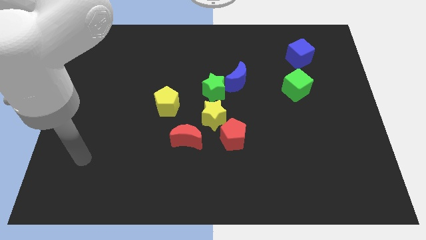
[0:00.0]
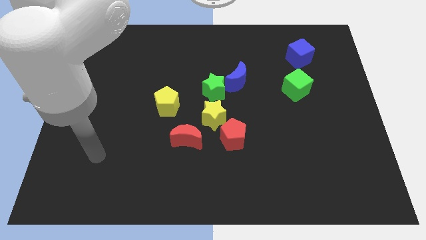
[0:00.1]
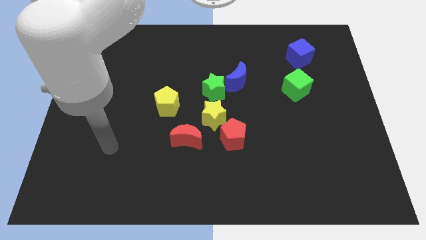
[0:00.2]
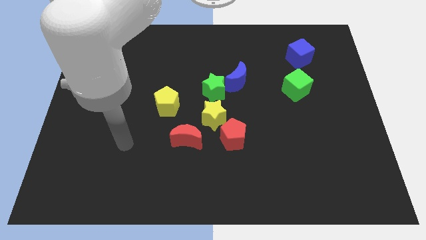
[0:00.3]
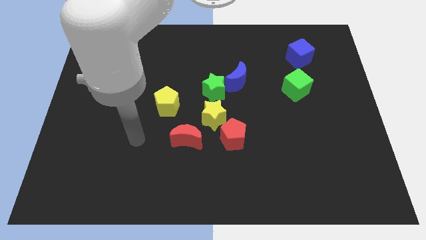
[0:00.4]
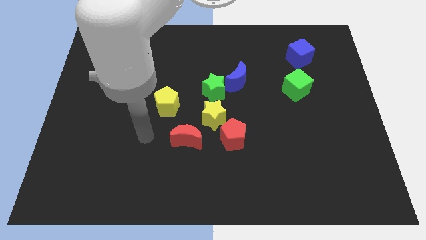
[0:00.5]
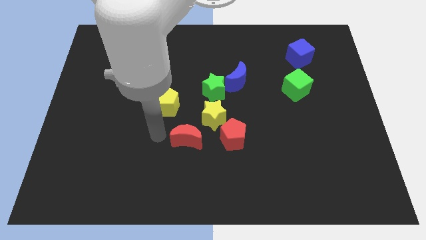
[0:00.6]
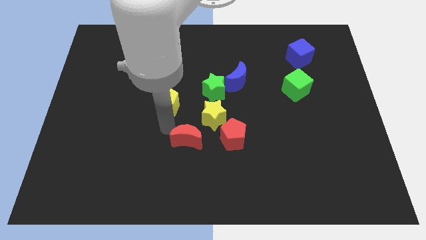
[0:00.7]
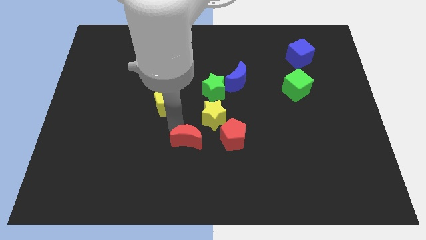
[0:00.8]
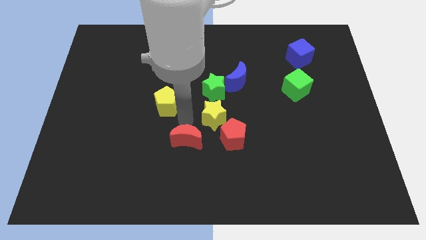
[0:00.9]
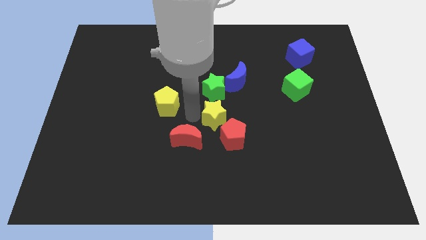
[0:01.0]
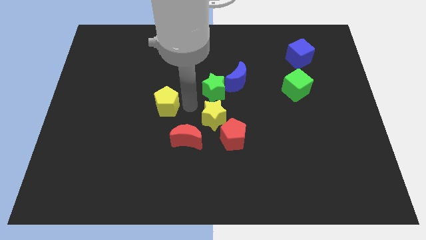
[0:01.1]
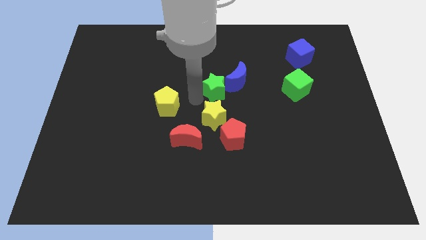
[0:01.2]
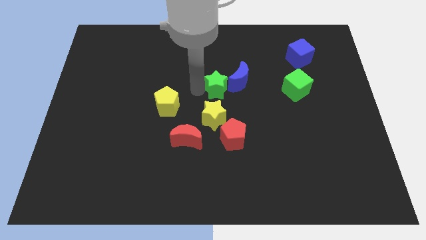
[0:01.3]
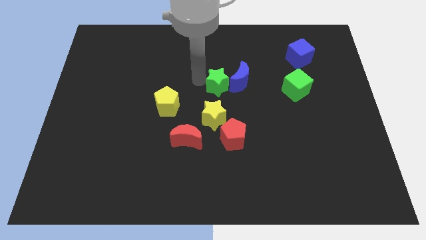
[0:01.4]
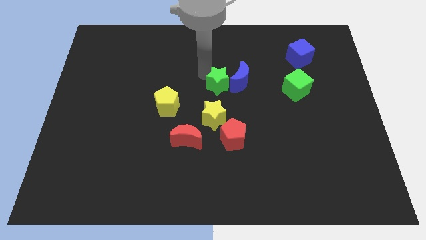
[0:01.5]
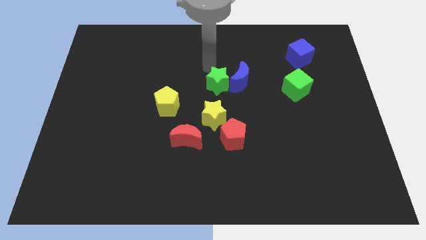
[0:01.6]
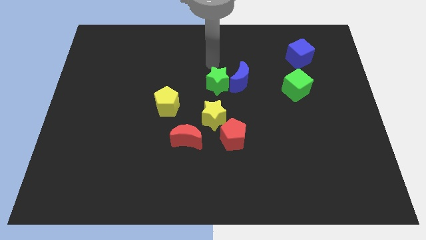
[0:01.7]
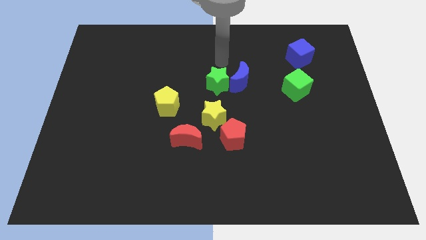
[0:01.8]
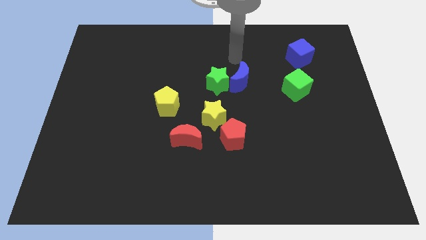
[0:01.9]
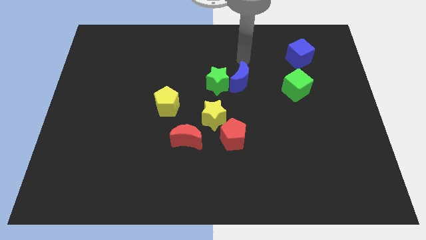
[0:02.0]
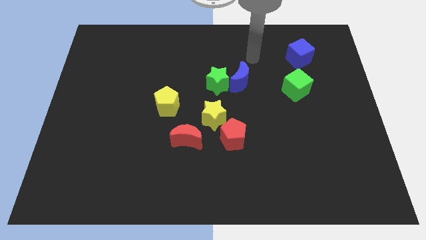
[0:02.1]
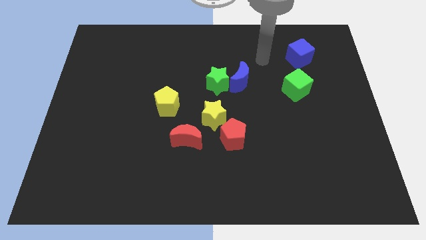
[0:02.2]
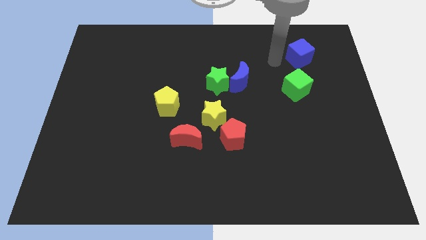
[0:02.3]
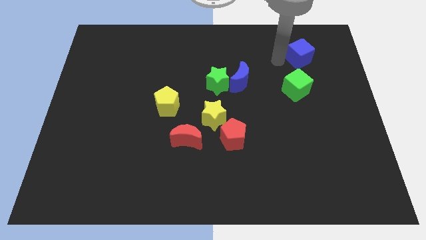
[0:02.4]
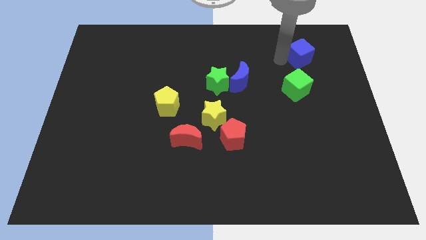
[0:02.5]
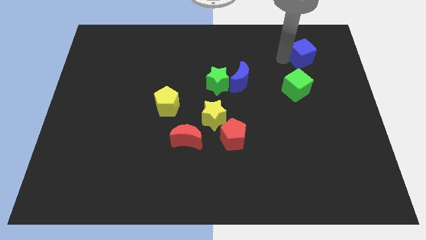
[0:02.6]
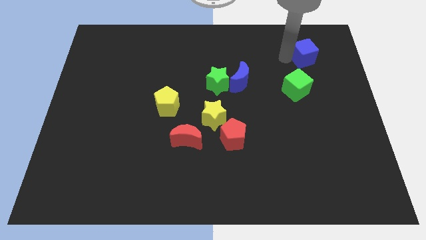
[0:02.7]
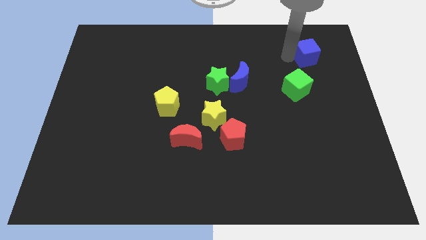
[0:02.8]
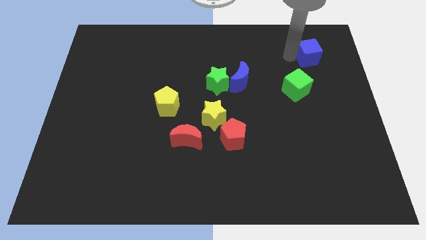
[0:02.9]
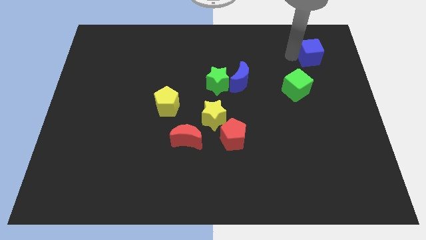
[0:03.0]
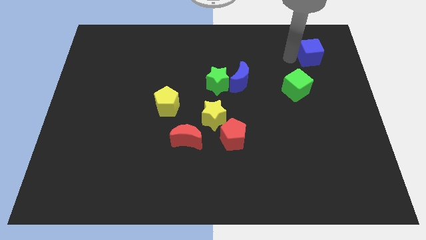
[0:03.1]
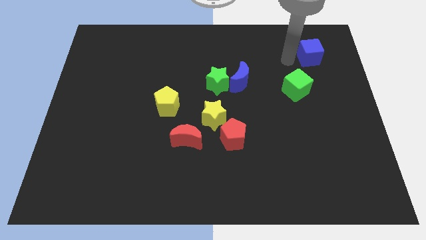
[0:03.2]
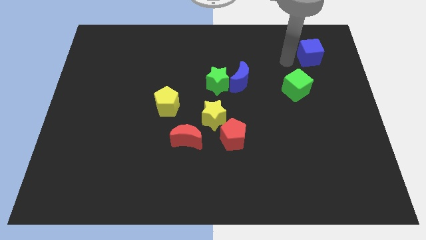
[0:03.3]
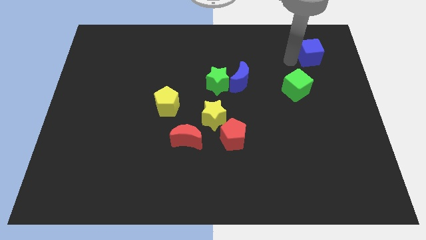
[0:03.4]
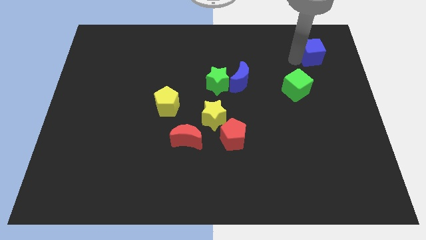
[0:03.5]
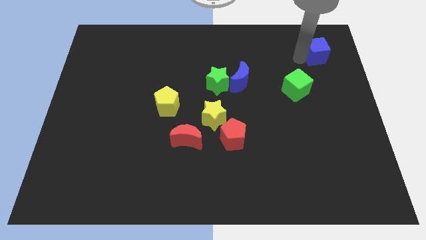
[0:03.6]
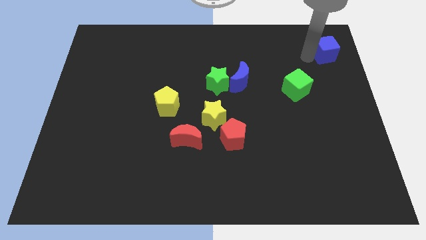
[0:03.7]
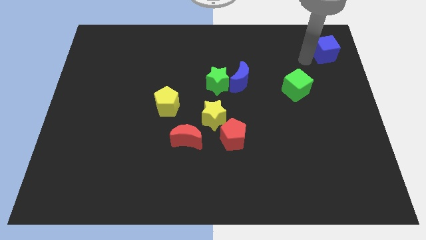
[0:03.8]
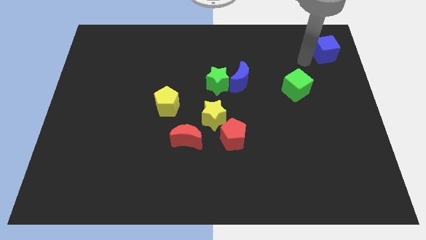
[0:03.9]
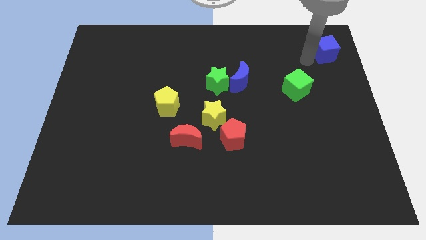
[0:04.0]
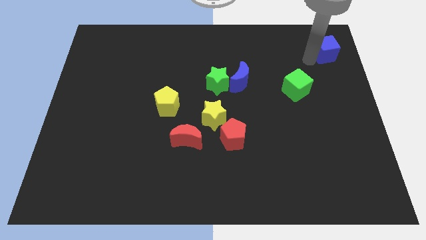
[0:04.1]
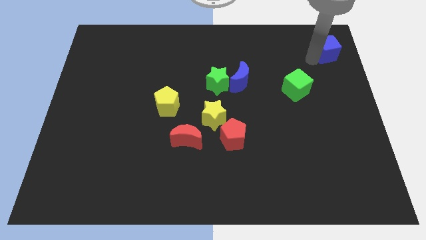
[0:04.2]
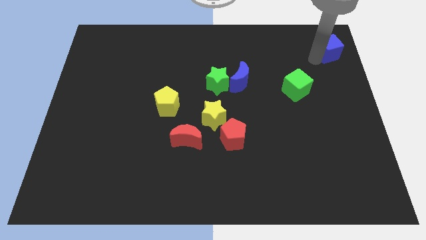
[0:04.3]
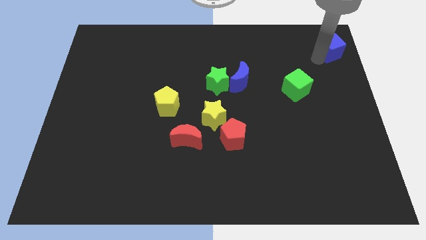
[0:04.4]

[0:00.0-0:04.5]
slide the blue cube to the upper right corner

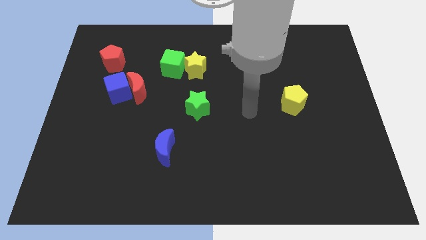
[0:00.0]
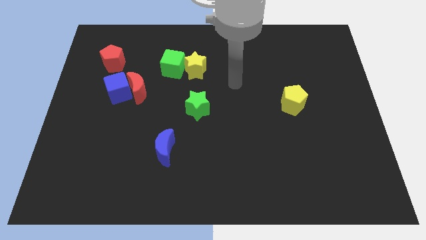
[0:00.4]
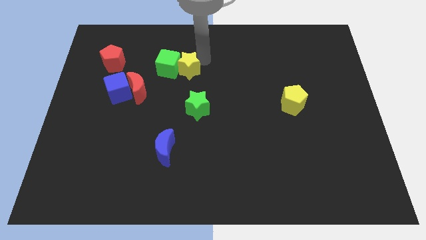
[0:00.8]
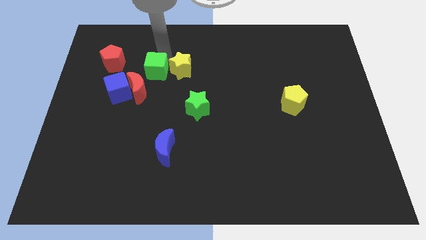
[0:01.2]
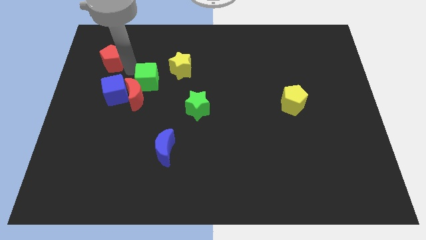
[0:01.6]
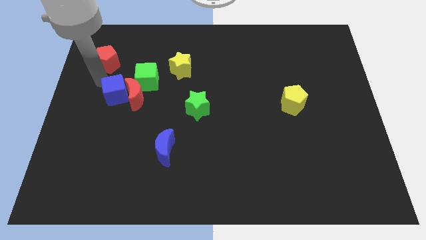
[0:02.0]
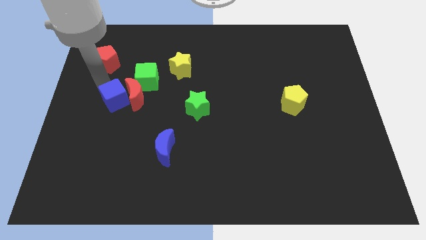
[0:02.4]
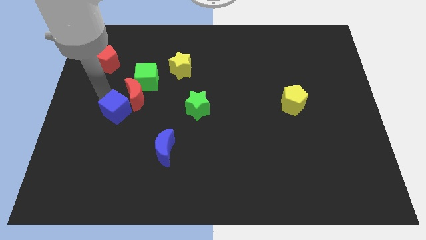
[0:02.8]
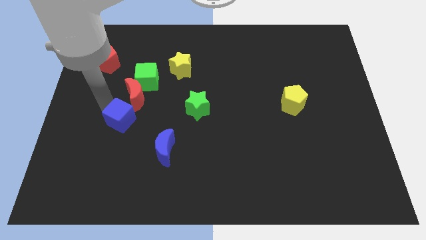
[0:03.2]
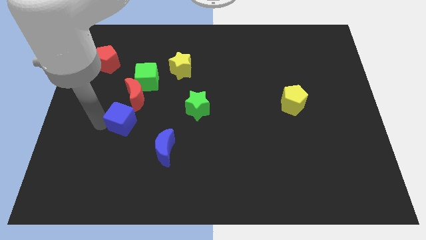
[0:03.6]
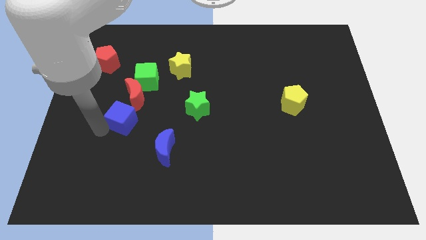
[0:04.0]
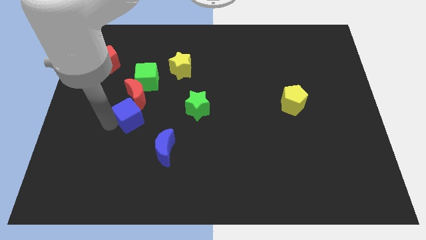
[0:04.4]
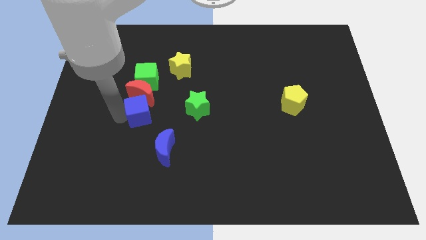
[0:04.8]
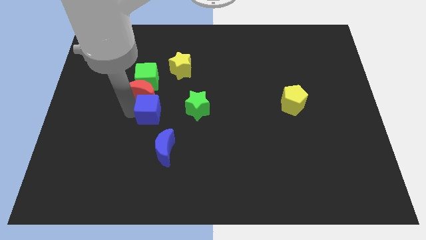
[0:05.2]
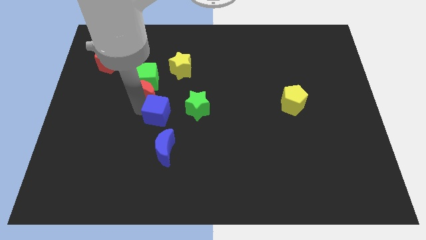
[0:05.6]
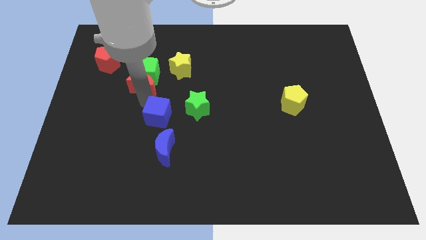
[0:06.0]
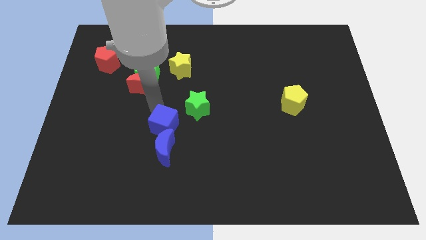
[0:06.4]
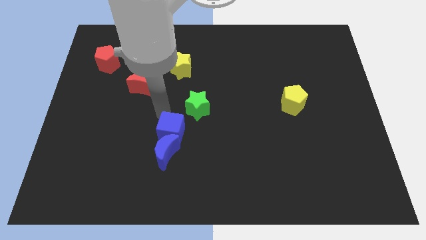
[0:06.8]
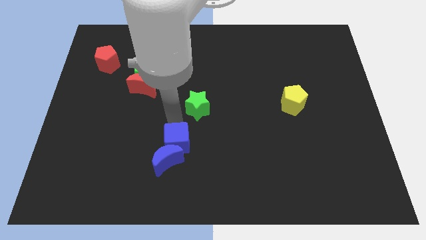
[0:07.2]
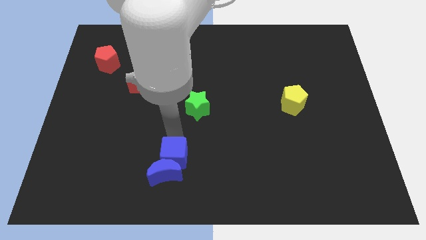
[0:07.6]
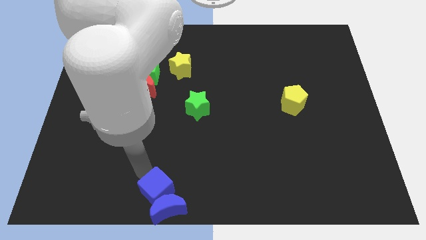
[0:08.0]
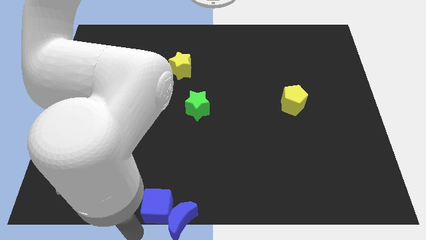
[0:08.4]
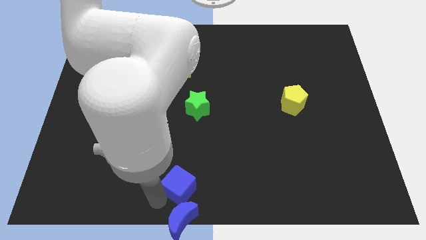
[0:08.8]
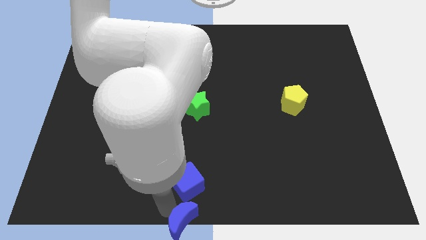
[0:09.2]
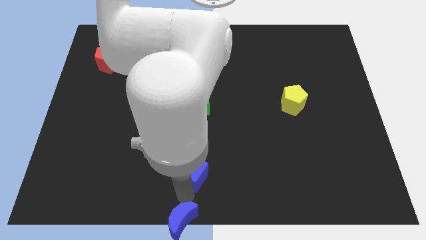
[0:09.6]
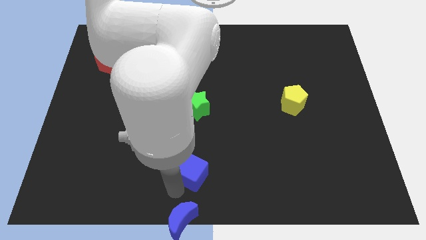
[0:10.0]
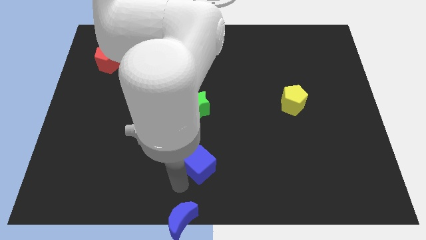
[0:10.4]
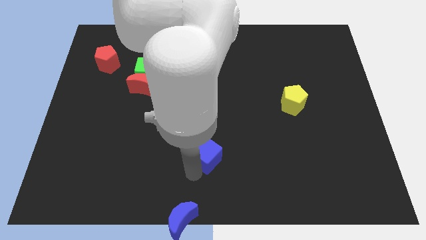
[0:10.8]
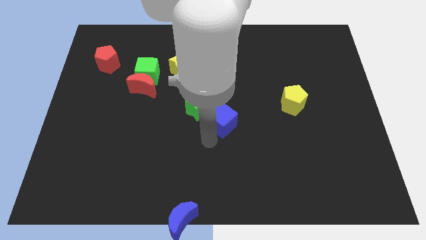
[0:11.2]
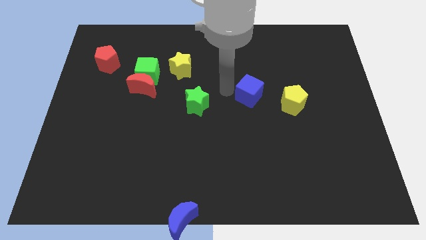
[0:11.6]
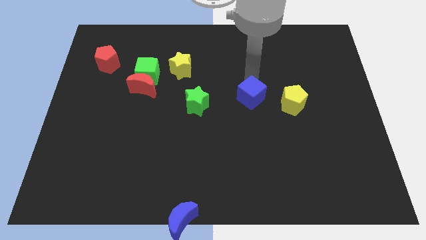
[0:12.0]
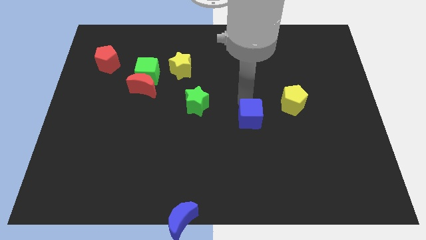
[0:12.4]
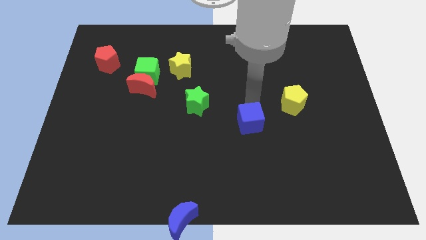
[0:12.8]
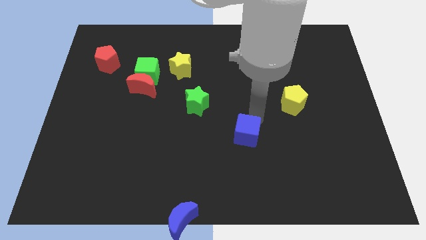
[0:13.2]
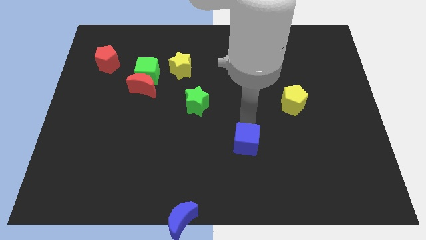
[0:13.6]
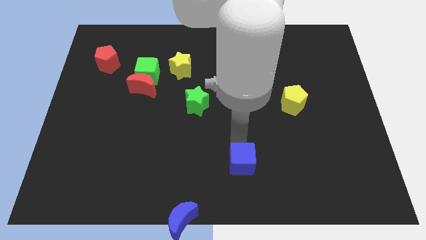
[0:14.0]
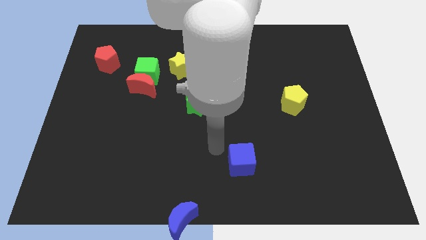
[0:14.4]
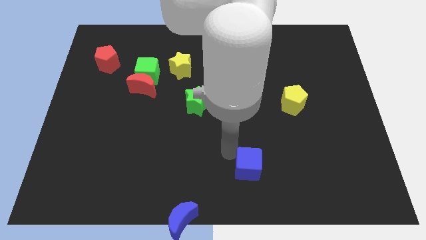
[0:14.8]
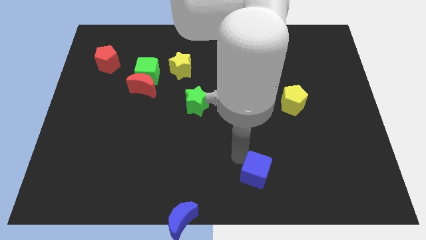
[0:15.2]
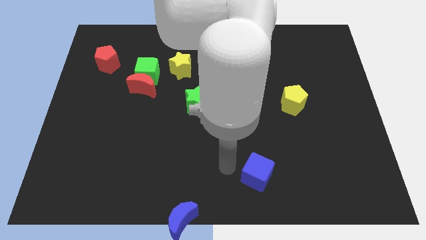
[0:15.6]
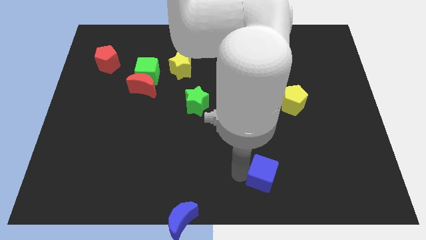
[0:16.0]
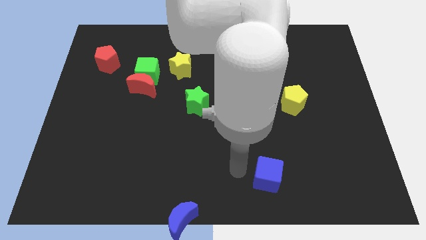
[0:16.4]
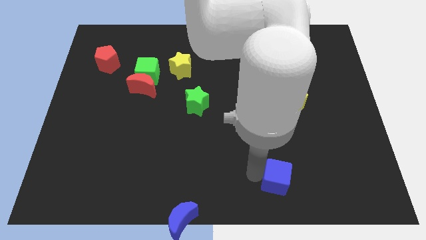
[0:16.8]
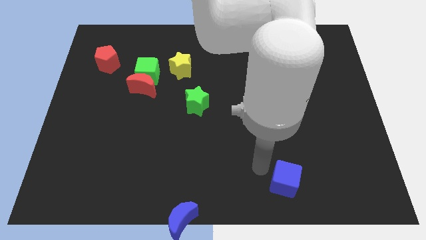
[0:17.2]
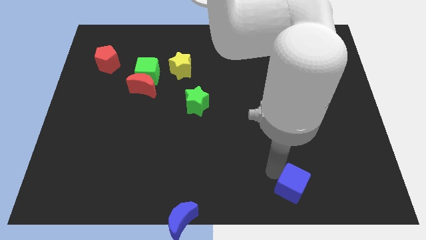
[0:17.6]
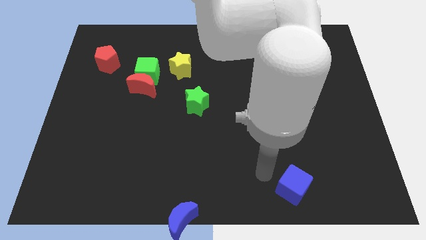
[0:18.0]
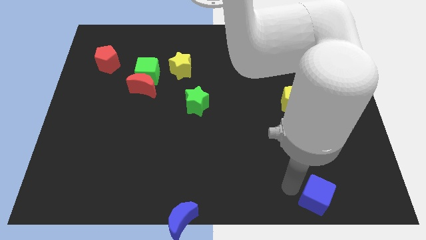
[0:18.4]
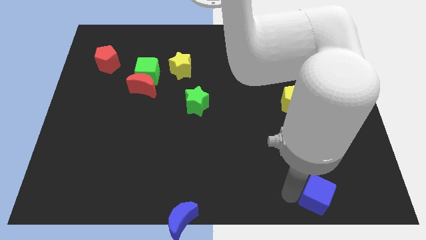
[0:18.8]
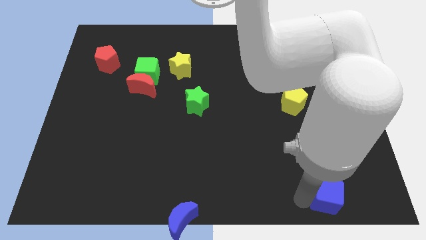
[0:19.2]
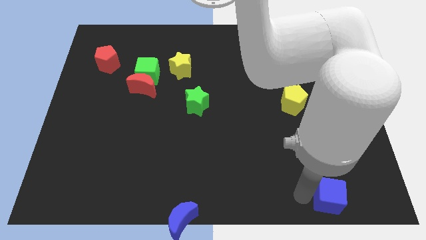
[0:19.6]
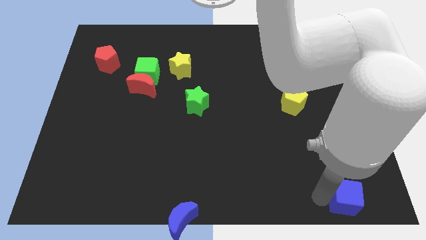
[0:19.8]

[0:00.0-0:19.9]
push the blue cube to the lower right corner
